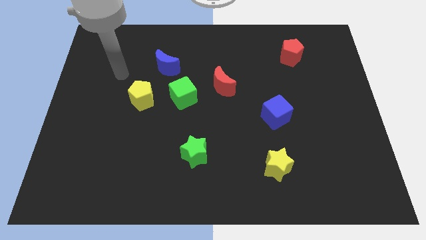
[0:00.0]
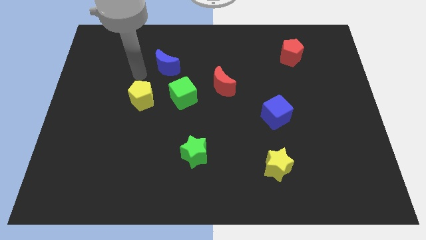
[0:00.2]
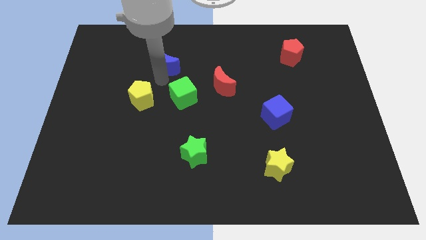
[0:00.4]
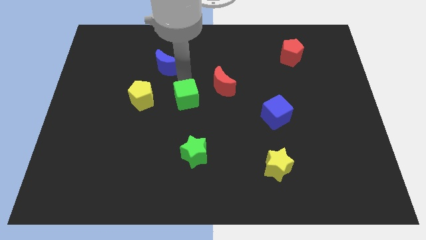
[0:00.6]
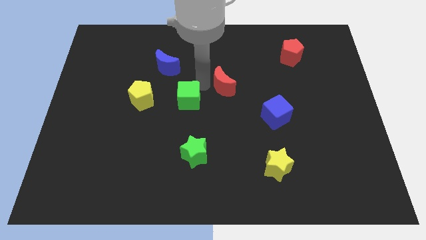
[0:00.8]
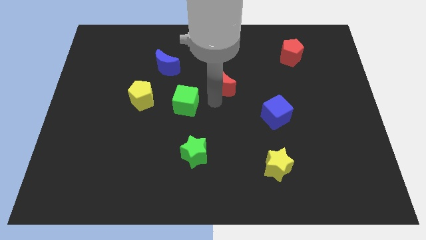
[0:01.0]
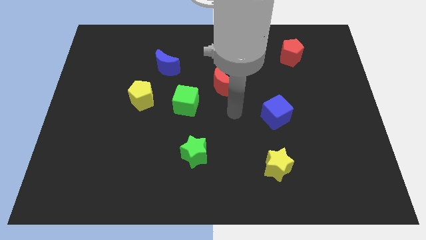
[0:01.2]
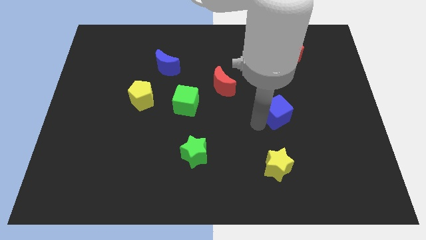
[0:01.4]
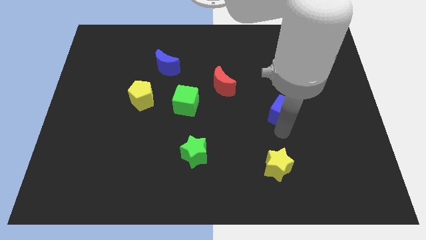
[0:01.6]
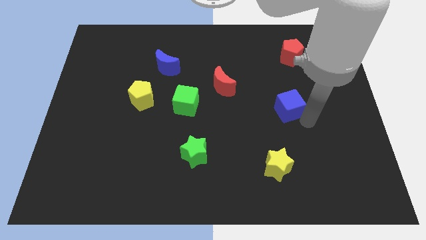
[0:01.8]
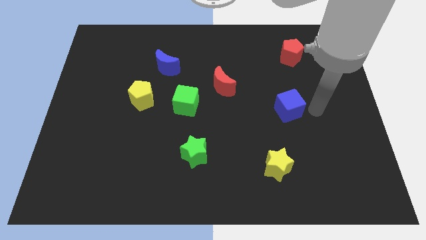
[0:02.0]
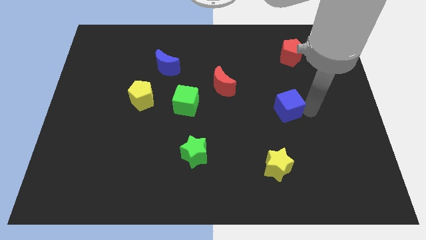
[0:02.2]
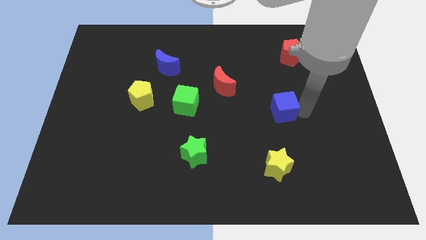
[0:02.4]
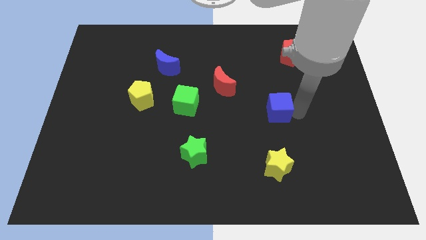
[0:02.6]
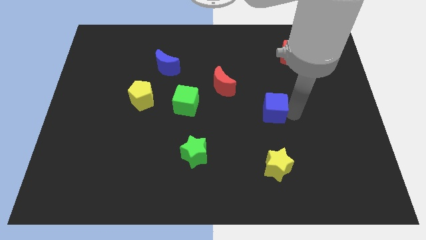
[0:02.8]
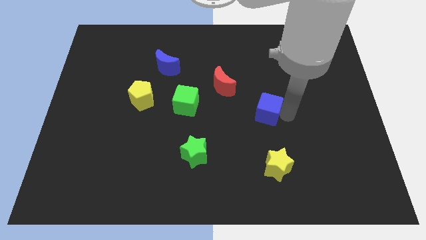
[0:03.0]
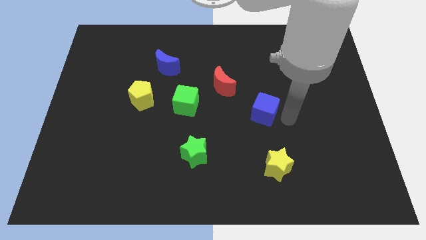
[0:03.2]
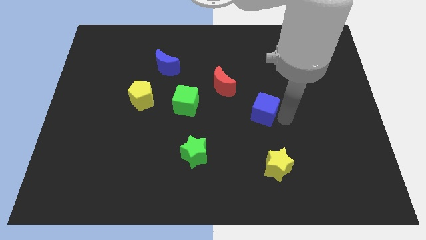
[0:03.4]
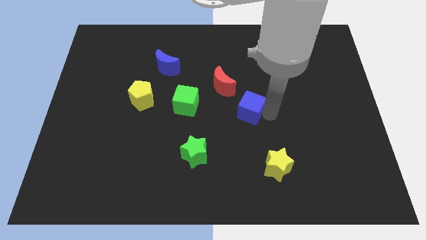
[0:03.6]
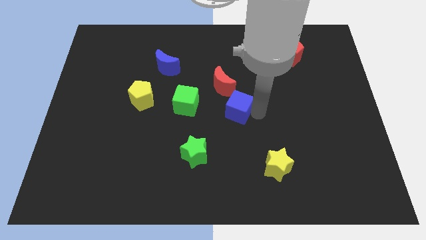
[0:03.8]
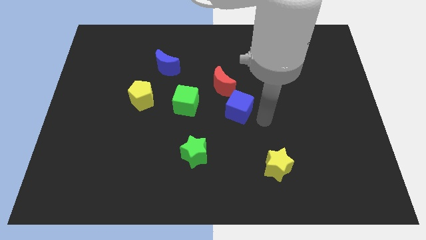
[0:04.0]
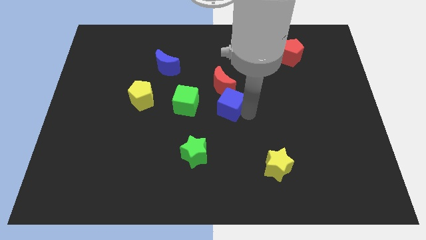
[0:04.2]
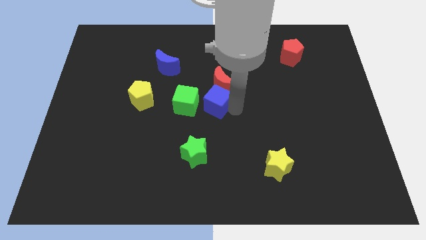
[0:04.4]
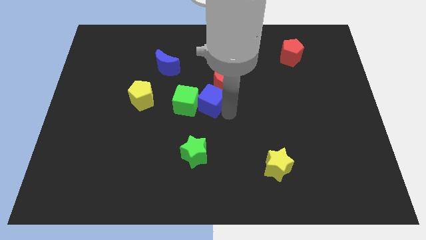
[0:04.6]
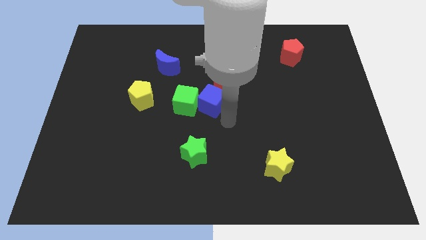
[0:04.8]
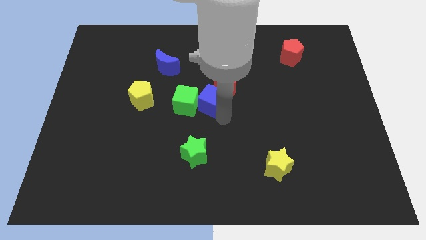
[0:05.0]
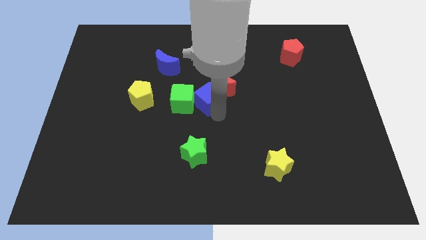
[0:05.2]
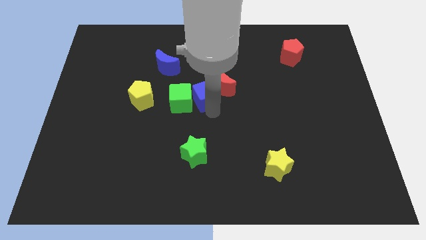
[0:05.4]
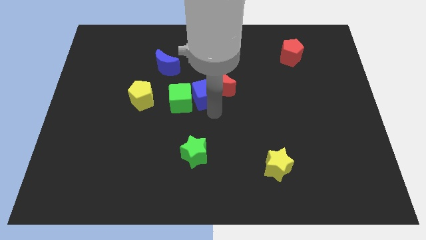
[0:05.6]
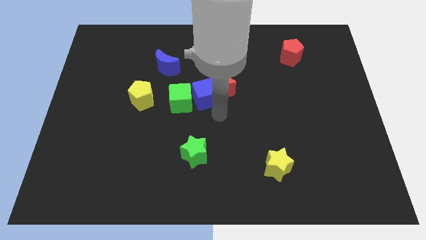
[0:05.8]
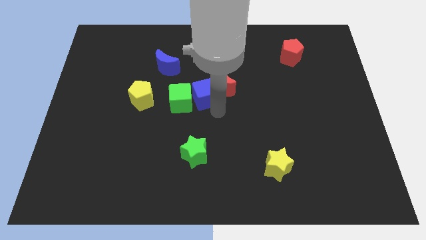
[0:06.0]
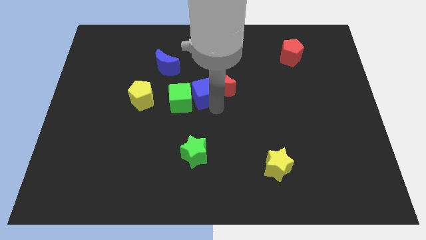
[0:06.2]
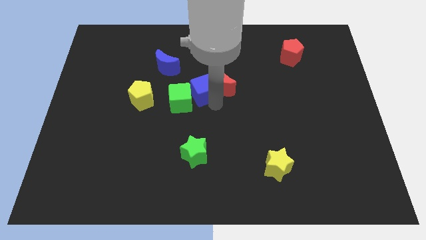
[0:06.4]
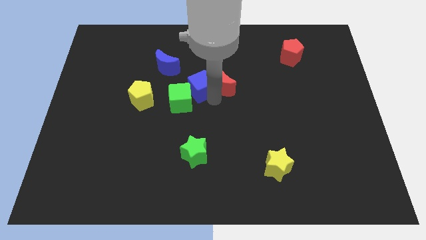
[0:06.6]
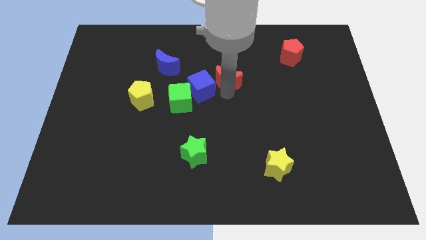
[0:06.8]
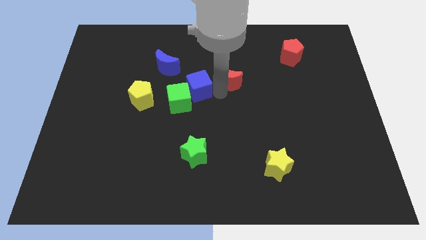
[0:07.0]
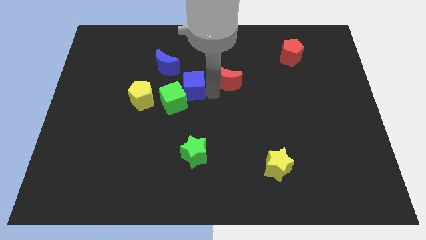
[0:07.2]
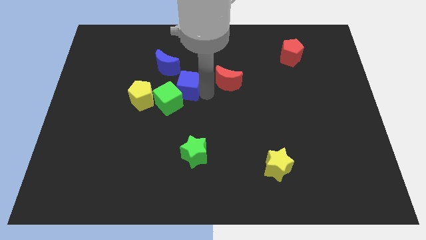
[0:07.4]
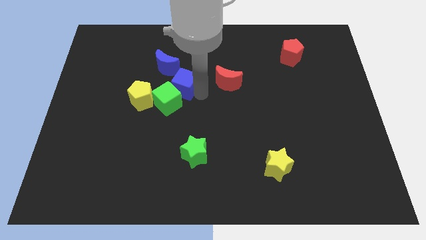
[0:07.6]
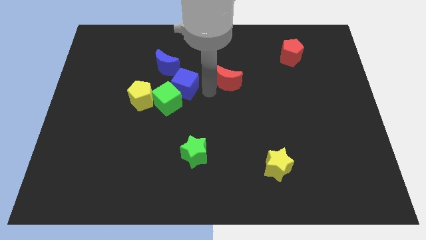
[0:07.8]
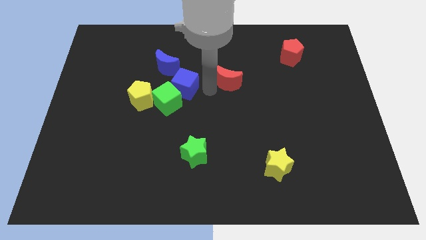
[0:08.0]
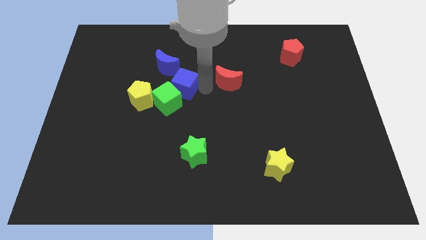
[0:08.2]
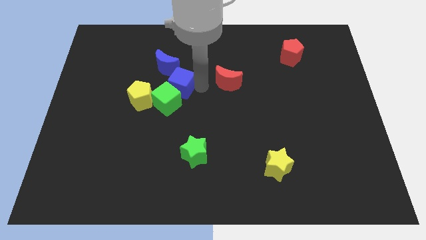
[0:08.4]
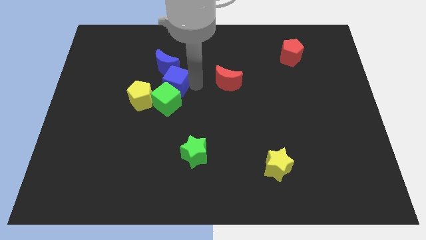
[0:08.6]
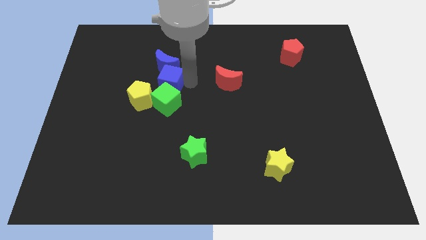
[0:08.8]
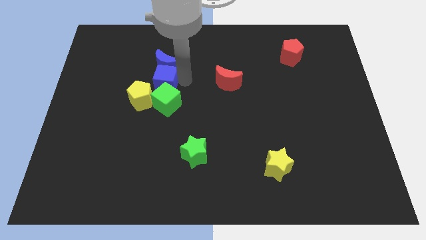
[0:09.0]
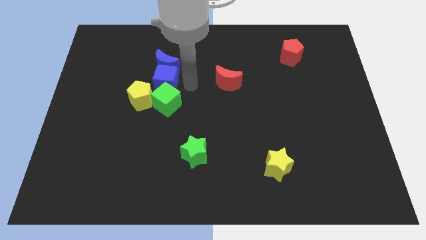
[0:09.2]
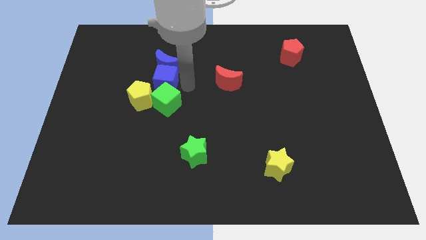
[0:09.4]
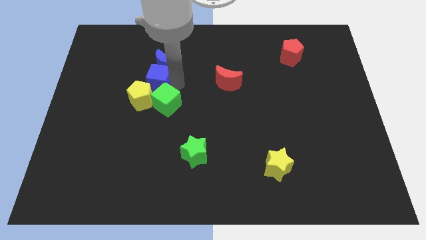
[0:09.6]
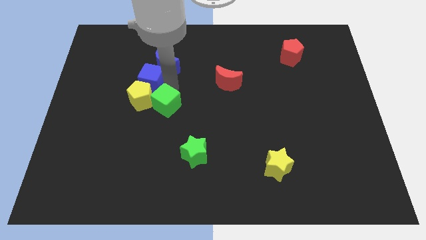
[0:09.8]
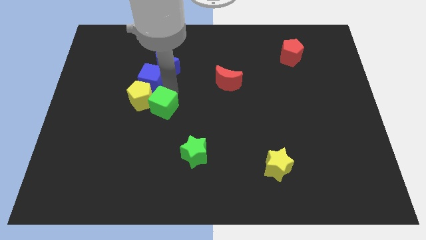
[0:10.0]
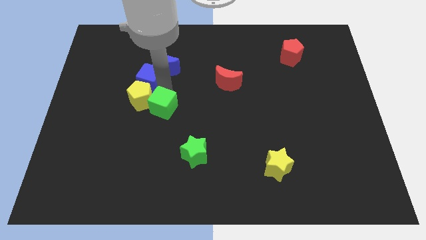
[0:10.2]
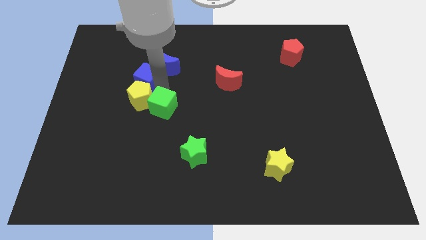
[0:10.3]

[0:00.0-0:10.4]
slide the blue cube just left of the blue moon

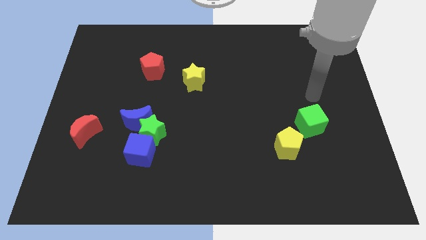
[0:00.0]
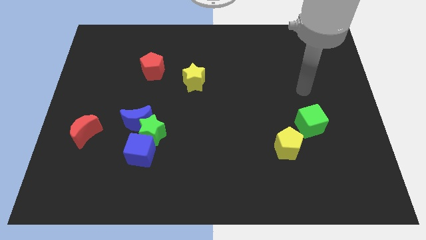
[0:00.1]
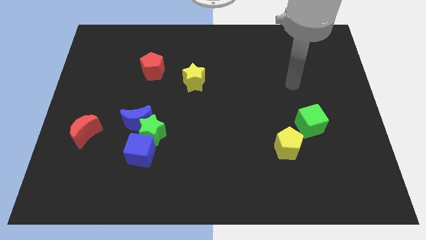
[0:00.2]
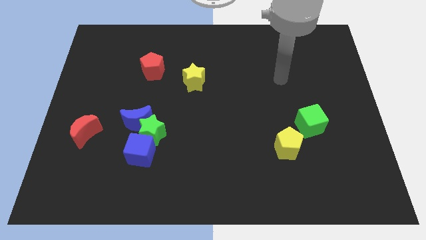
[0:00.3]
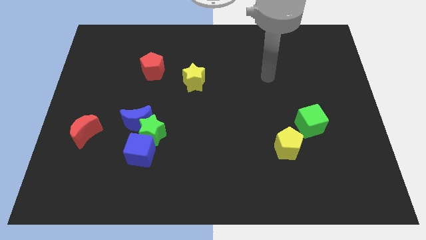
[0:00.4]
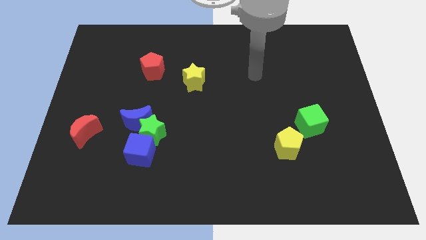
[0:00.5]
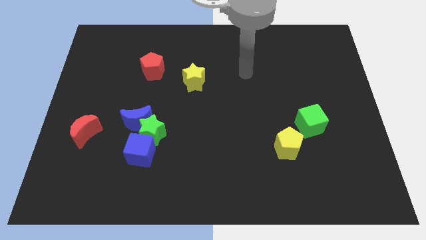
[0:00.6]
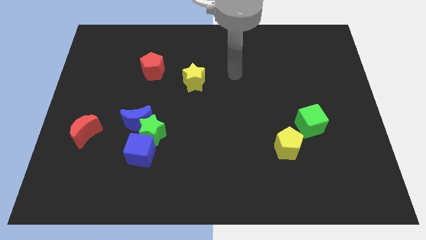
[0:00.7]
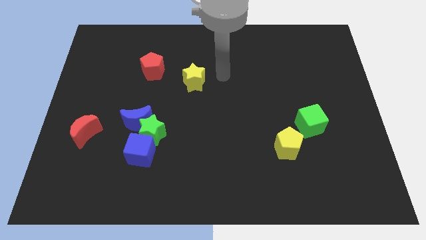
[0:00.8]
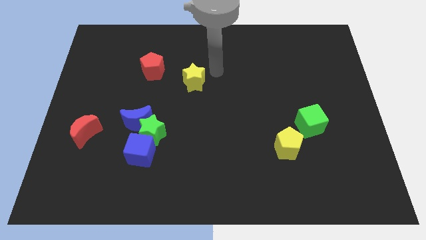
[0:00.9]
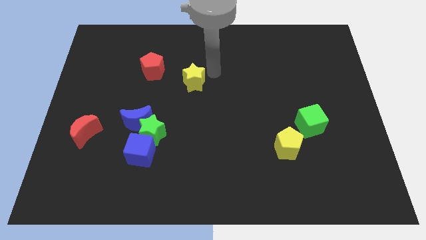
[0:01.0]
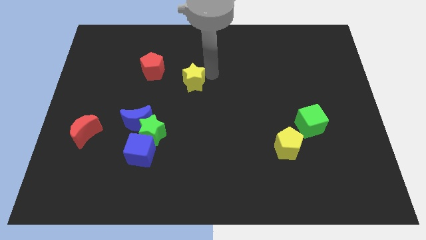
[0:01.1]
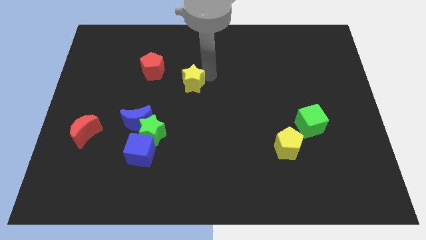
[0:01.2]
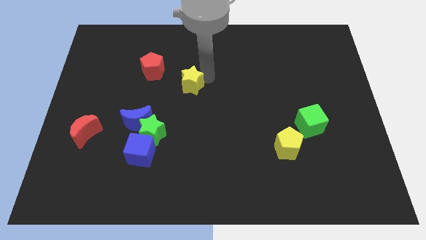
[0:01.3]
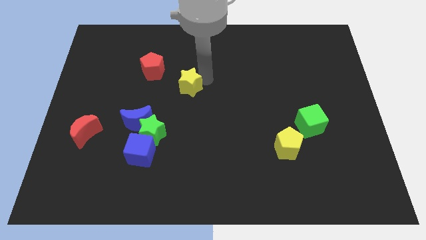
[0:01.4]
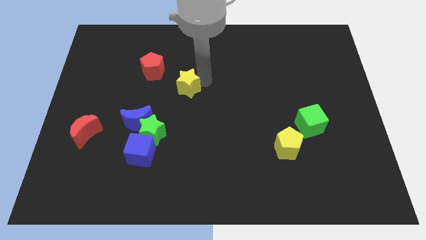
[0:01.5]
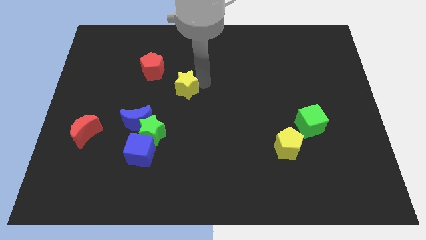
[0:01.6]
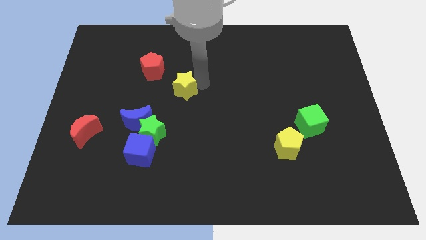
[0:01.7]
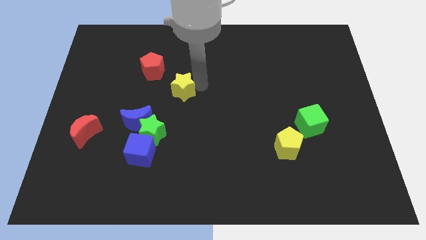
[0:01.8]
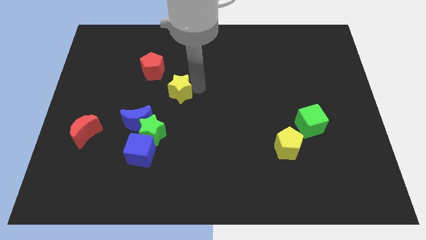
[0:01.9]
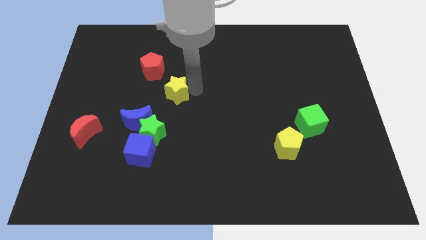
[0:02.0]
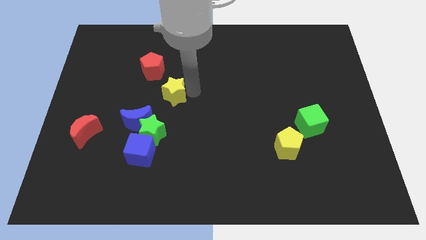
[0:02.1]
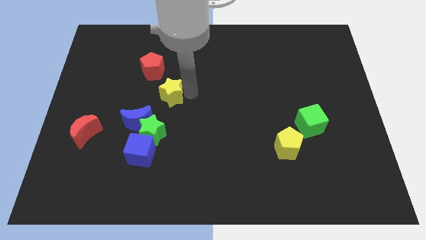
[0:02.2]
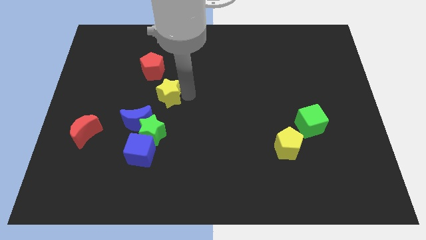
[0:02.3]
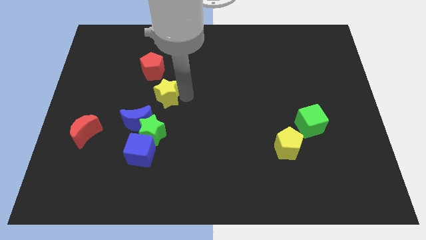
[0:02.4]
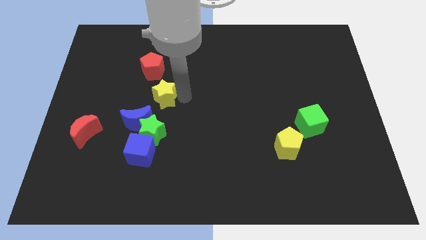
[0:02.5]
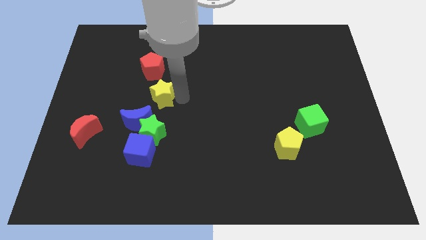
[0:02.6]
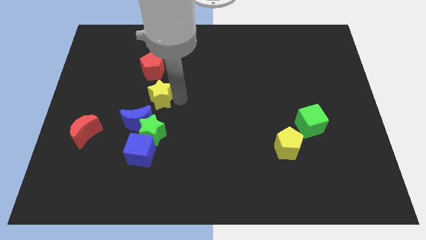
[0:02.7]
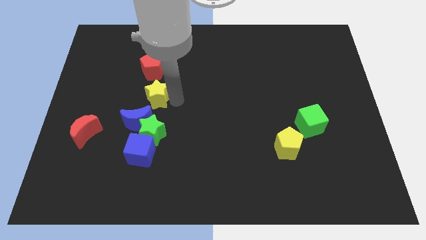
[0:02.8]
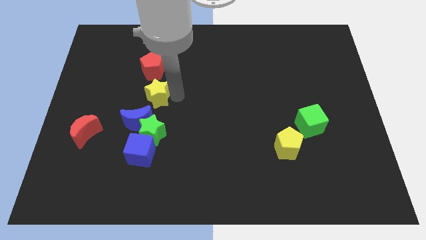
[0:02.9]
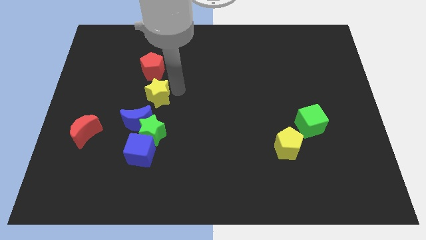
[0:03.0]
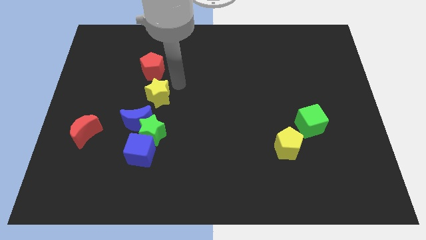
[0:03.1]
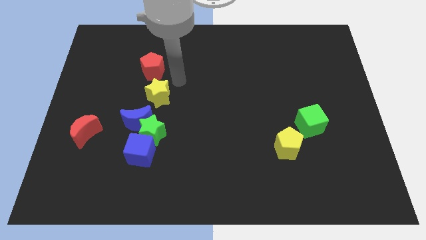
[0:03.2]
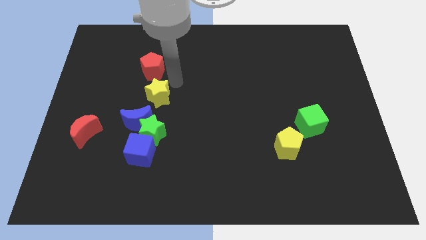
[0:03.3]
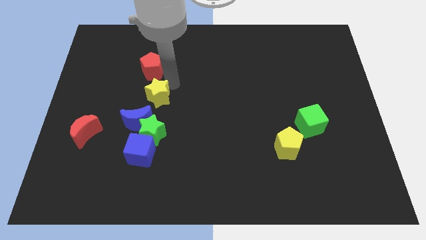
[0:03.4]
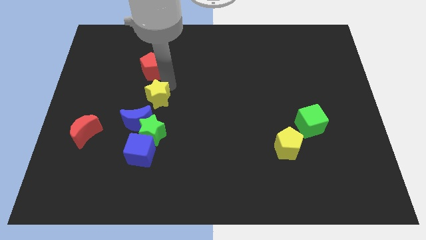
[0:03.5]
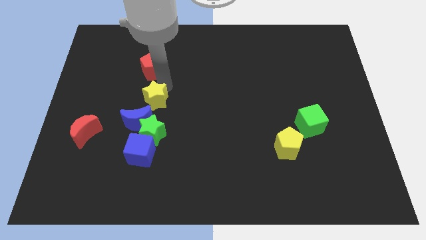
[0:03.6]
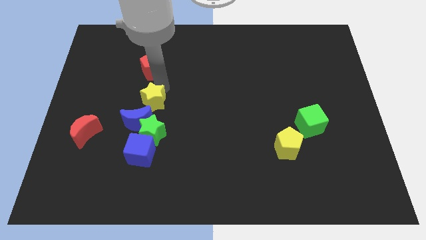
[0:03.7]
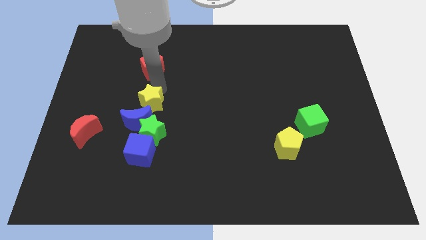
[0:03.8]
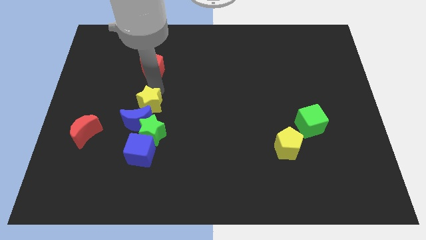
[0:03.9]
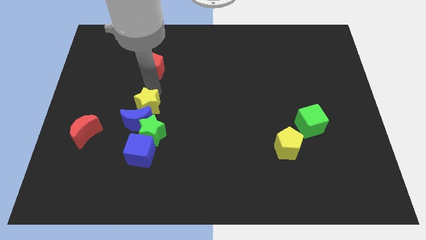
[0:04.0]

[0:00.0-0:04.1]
put the yellow star to the top left of the green star
